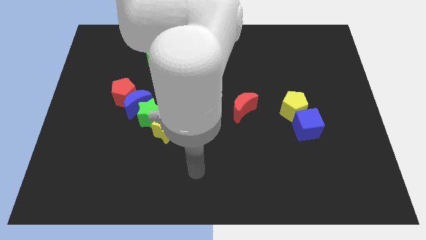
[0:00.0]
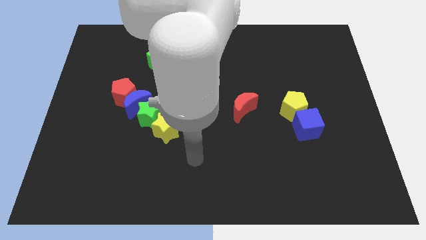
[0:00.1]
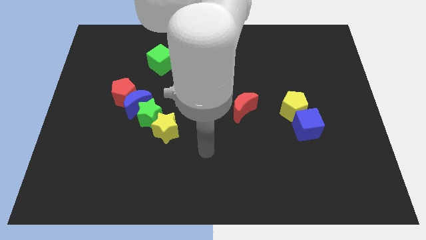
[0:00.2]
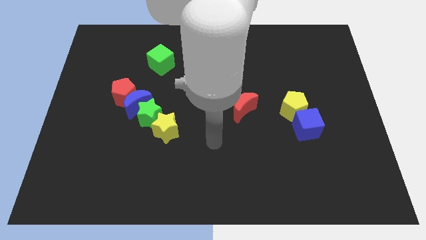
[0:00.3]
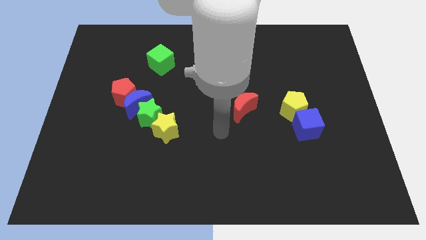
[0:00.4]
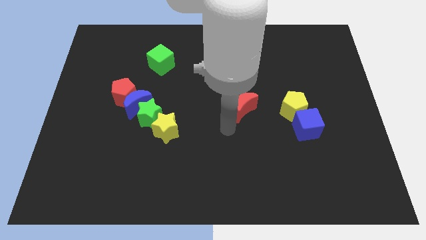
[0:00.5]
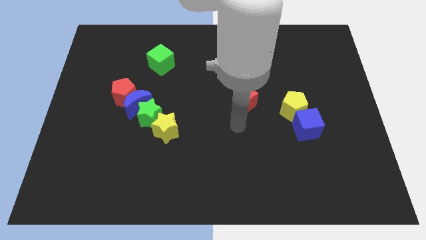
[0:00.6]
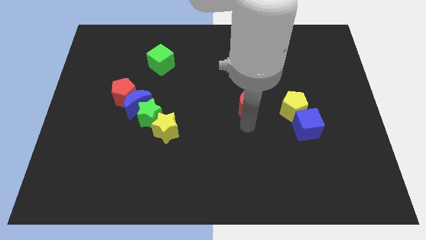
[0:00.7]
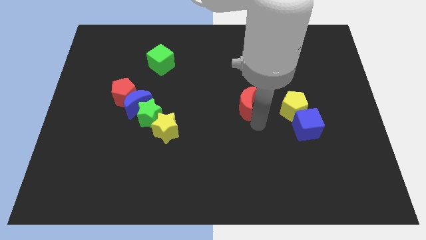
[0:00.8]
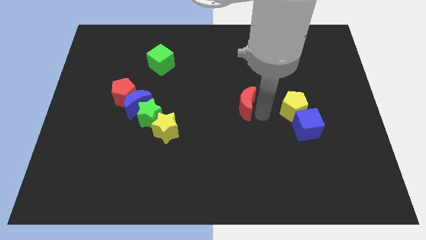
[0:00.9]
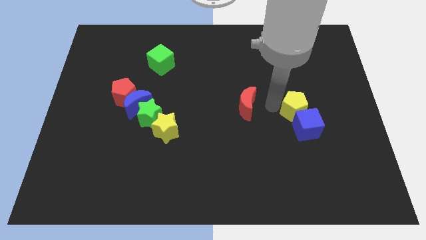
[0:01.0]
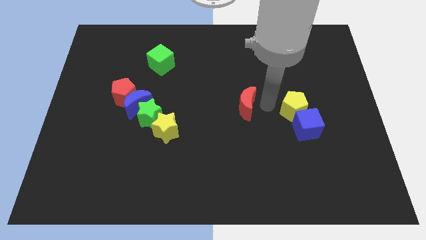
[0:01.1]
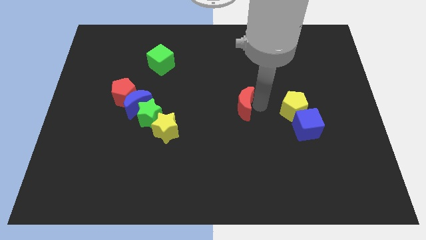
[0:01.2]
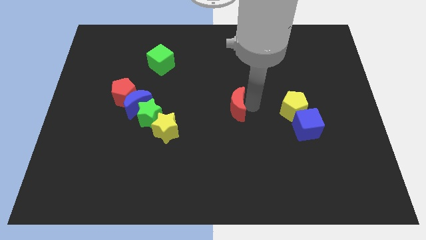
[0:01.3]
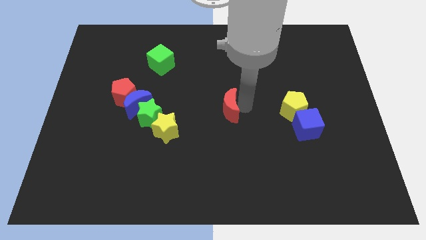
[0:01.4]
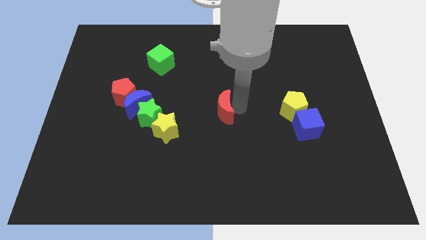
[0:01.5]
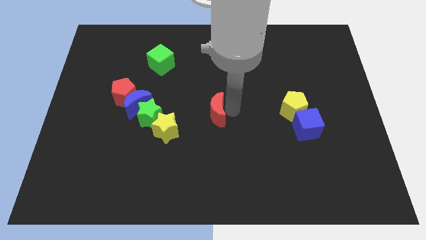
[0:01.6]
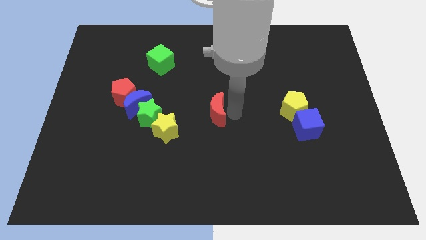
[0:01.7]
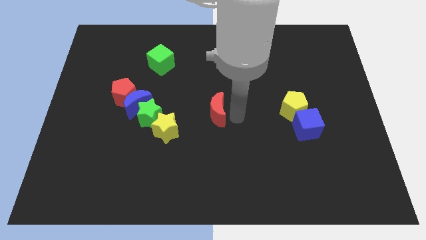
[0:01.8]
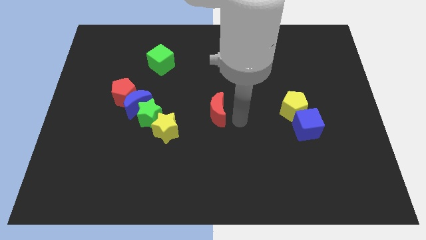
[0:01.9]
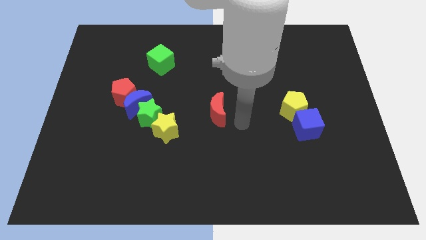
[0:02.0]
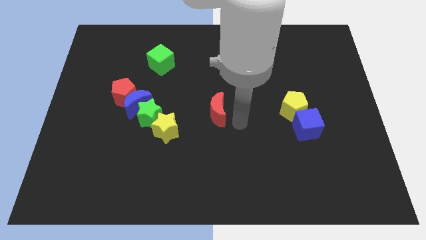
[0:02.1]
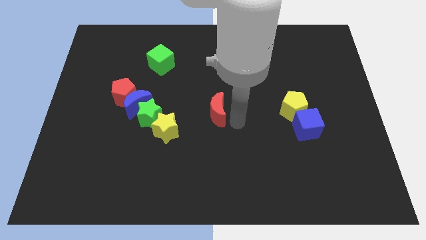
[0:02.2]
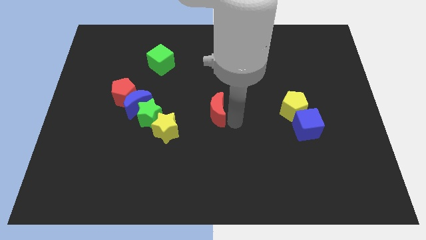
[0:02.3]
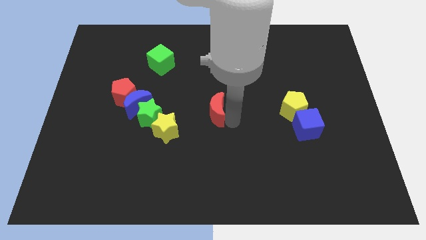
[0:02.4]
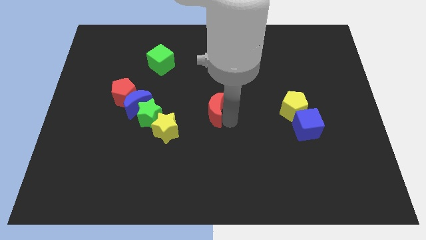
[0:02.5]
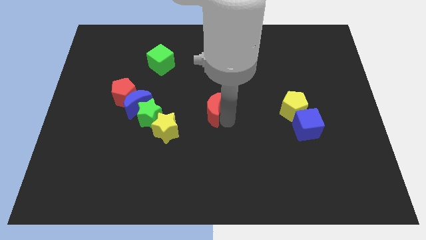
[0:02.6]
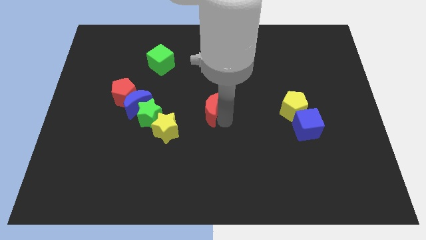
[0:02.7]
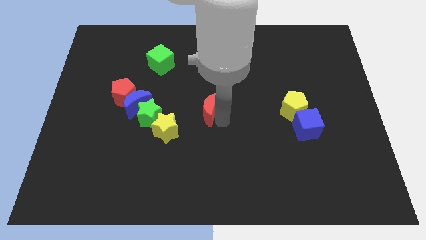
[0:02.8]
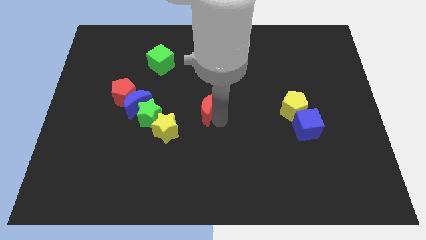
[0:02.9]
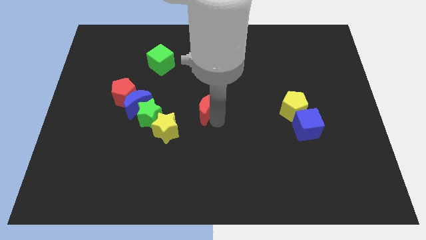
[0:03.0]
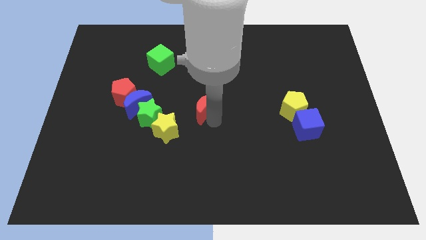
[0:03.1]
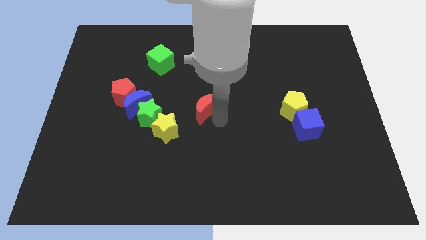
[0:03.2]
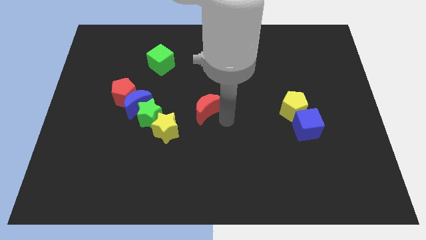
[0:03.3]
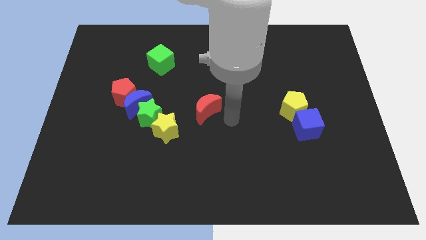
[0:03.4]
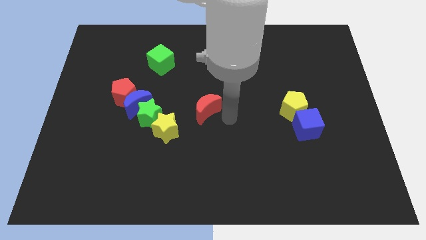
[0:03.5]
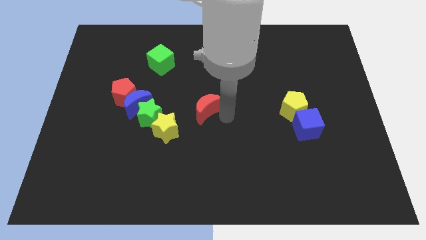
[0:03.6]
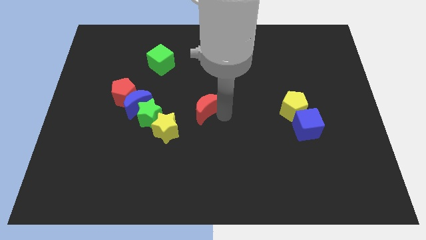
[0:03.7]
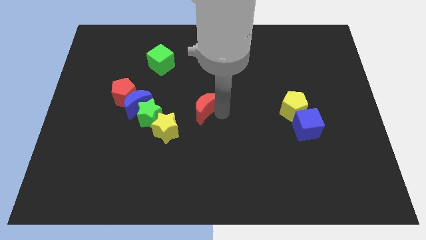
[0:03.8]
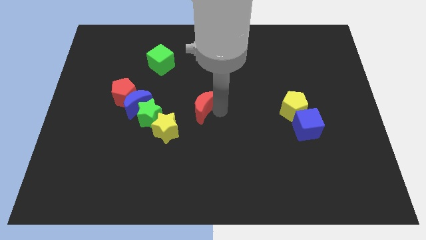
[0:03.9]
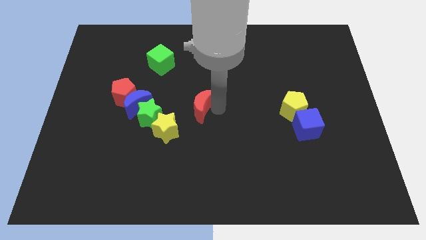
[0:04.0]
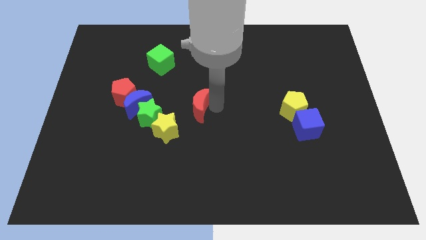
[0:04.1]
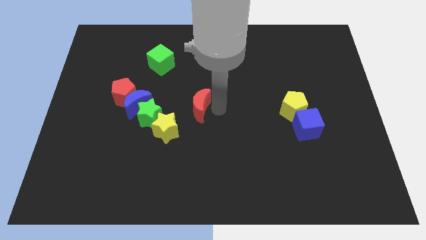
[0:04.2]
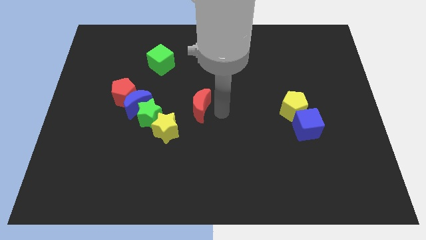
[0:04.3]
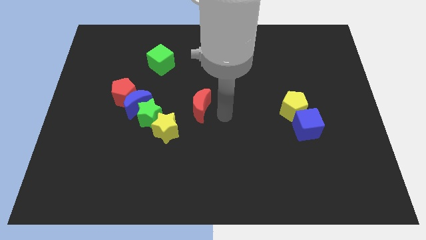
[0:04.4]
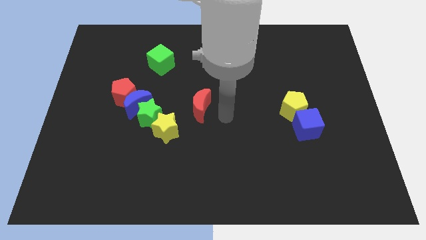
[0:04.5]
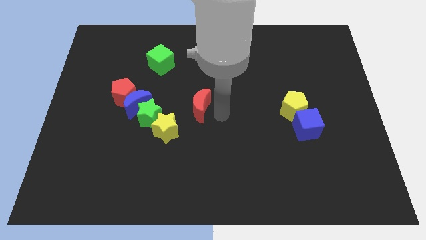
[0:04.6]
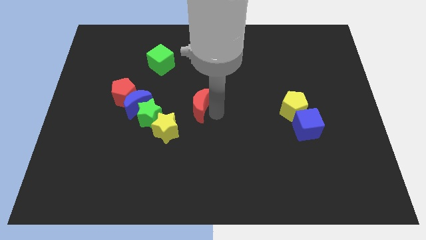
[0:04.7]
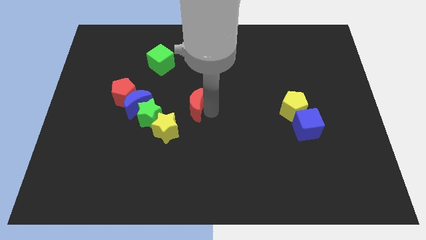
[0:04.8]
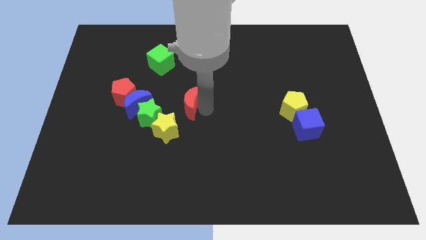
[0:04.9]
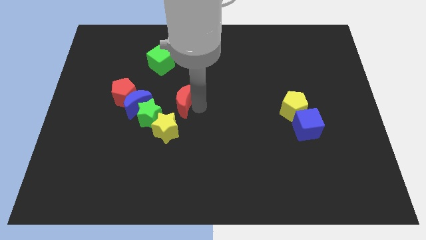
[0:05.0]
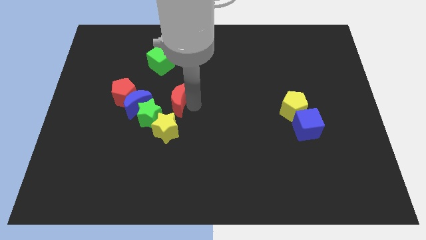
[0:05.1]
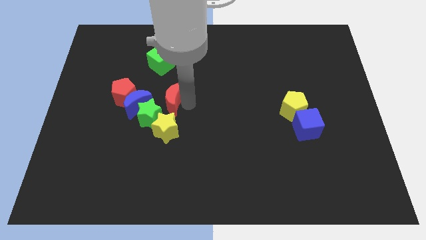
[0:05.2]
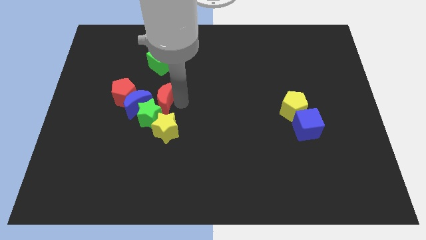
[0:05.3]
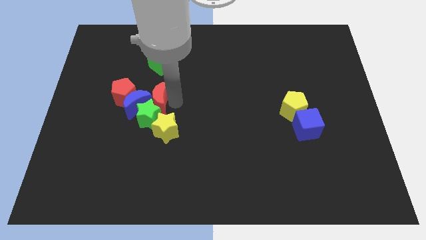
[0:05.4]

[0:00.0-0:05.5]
move the red moon close to the blue moon

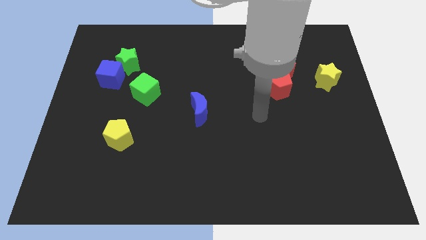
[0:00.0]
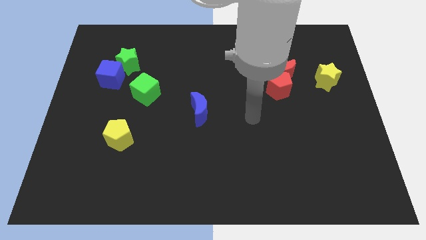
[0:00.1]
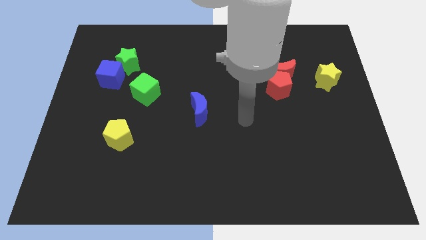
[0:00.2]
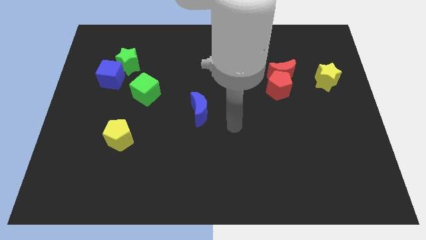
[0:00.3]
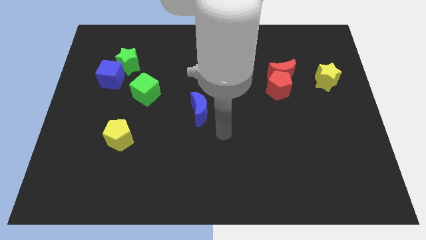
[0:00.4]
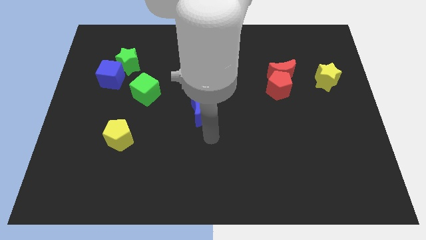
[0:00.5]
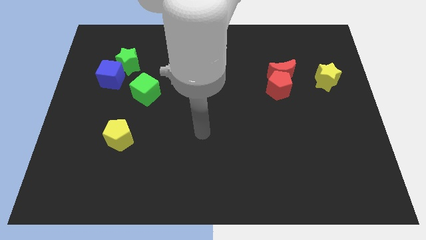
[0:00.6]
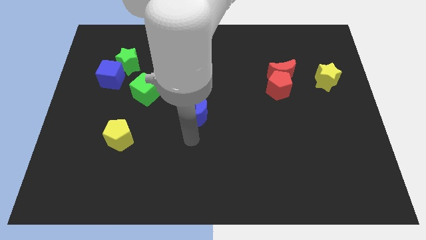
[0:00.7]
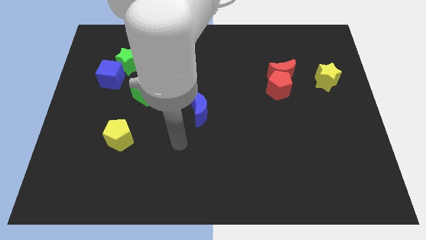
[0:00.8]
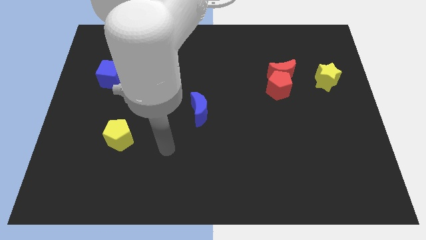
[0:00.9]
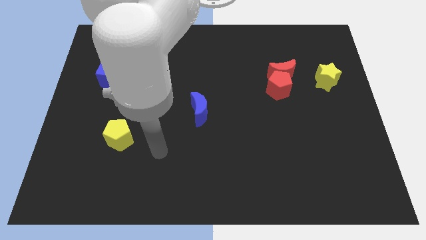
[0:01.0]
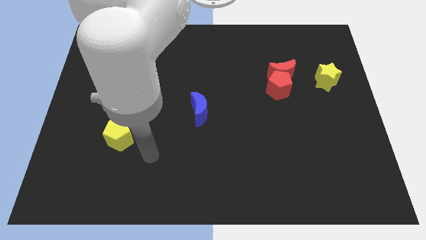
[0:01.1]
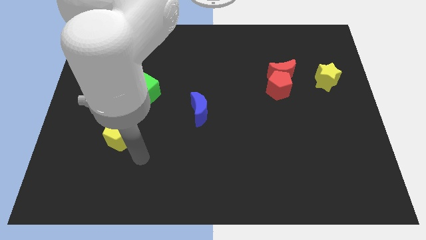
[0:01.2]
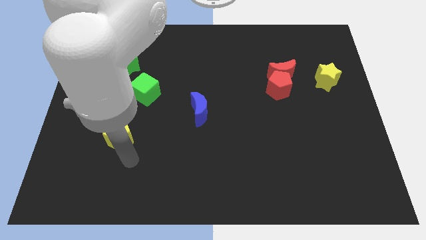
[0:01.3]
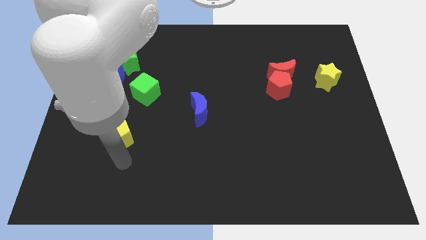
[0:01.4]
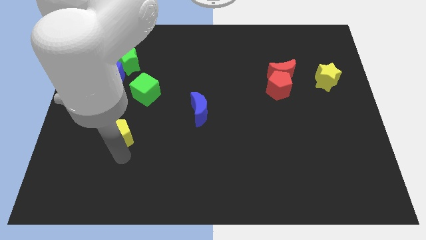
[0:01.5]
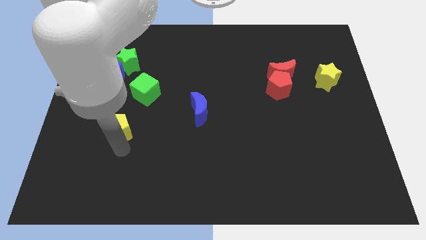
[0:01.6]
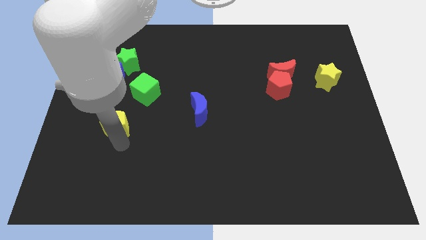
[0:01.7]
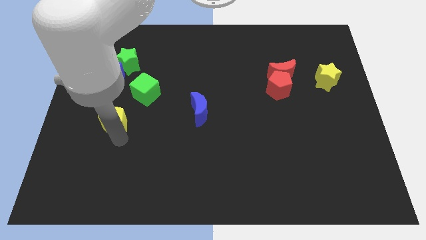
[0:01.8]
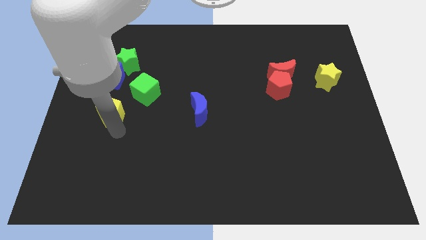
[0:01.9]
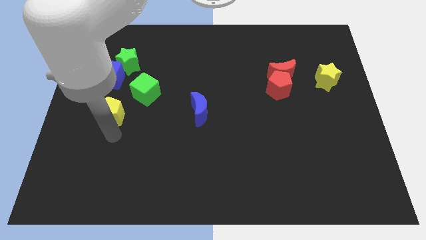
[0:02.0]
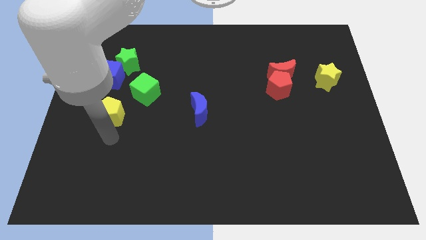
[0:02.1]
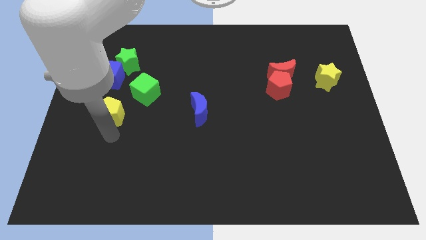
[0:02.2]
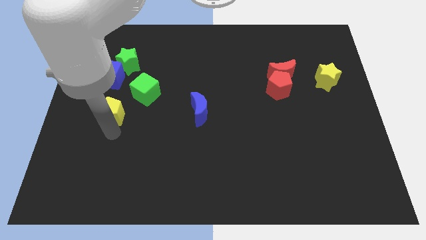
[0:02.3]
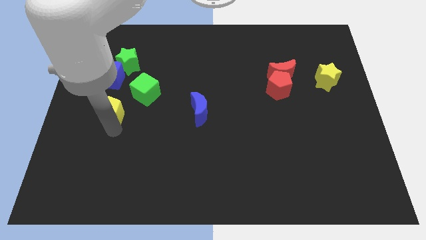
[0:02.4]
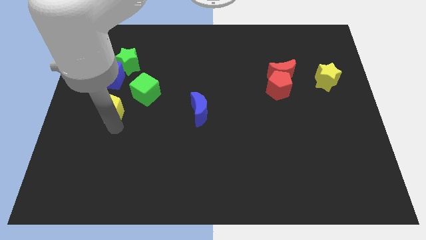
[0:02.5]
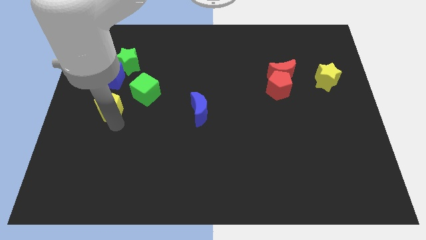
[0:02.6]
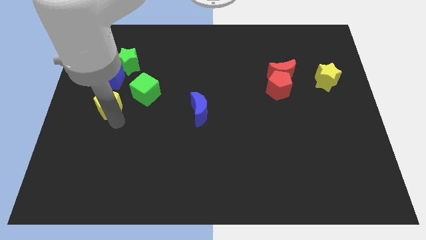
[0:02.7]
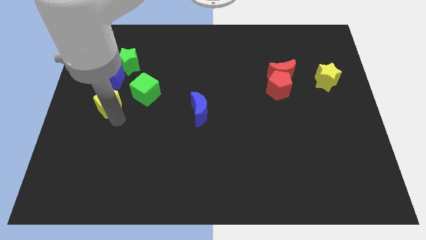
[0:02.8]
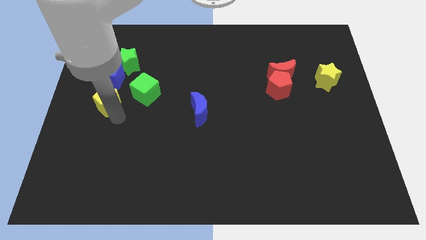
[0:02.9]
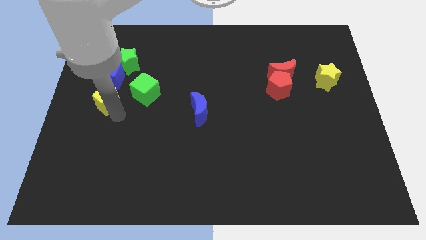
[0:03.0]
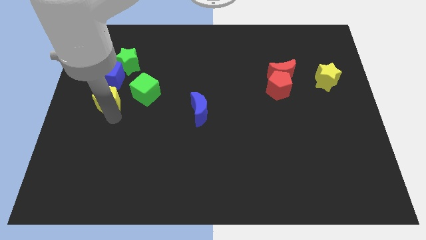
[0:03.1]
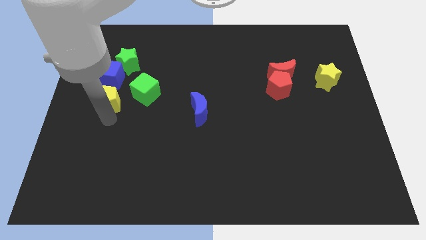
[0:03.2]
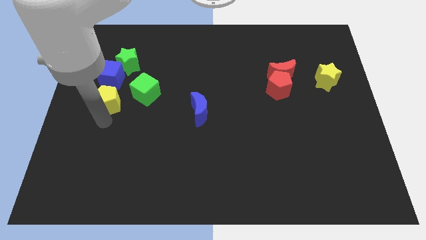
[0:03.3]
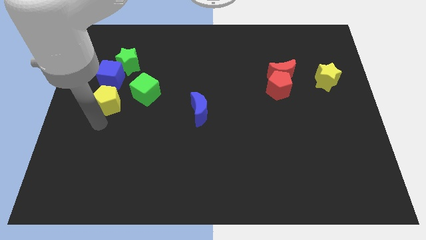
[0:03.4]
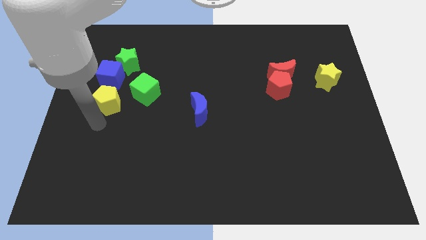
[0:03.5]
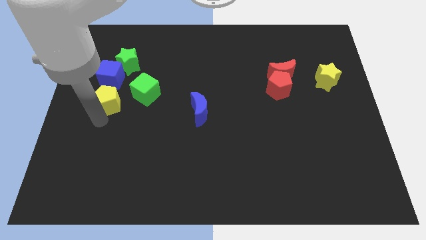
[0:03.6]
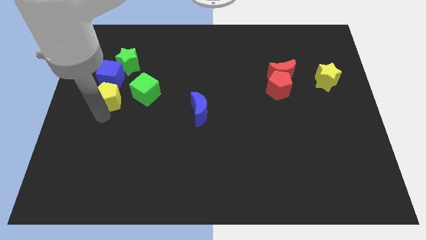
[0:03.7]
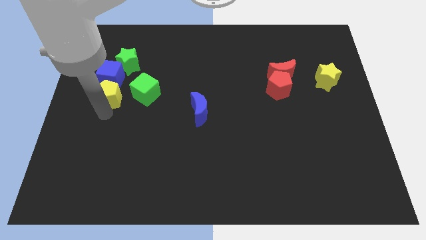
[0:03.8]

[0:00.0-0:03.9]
slide the yellow pentagon to the blue cube
